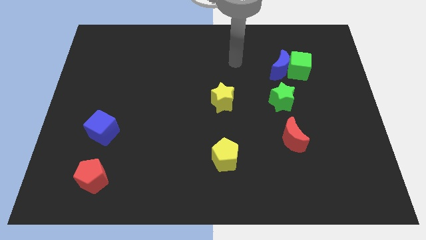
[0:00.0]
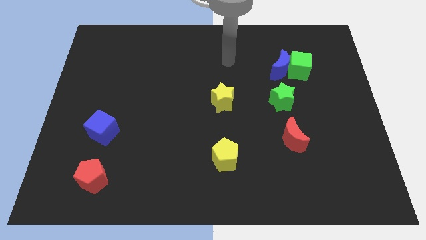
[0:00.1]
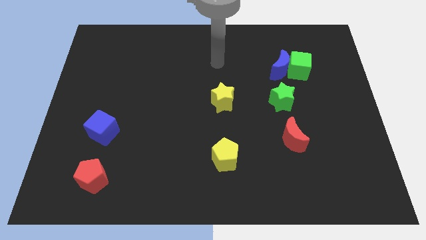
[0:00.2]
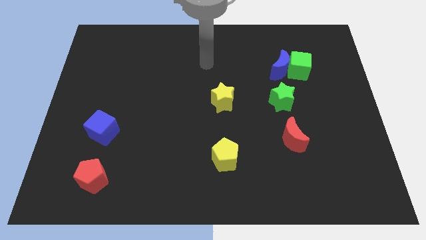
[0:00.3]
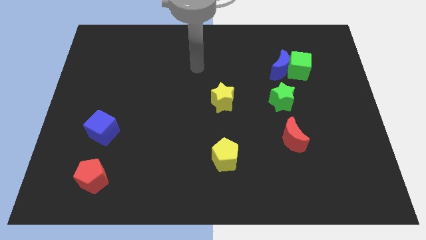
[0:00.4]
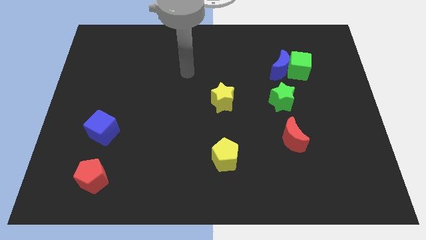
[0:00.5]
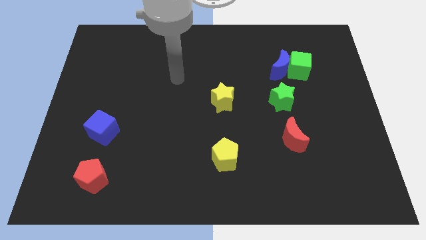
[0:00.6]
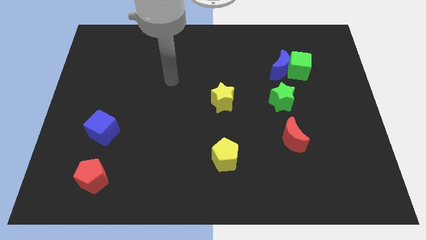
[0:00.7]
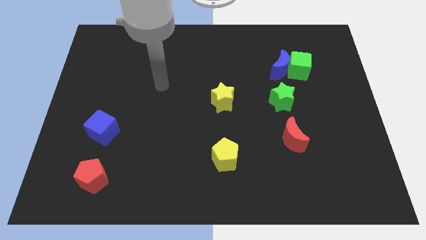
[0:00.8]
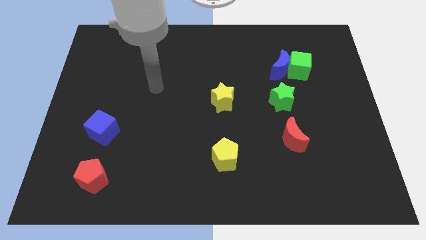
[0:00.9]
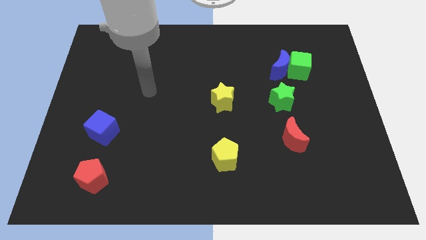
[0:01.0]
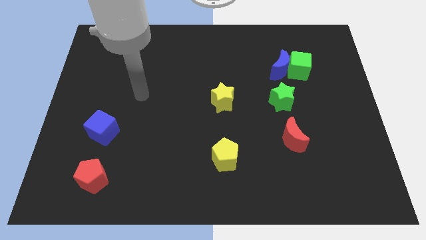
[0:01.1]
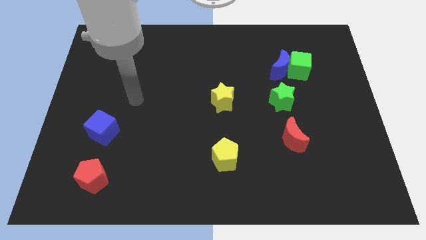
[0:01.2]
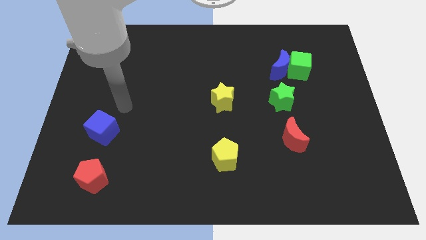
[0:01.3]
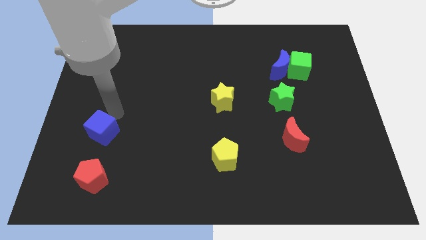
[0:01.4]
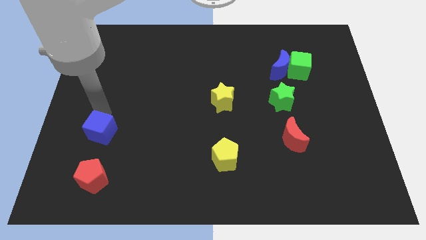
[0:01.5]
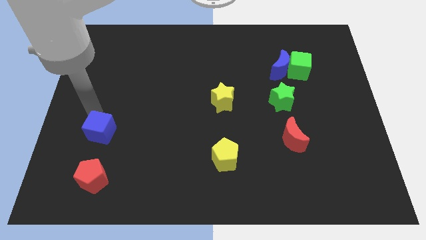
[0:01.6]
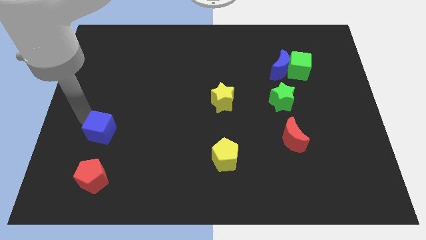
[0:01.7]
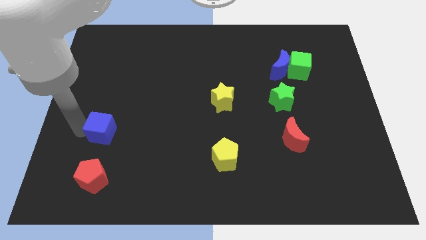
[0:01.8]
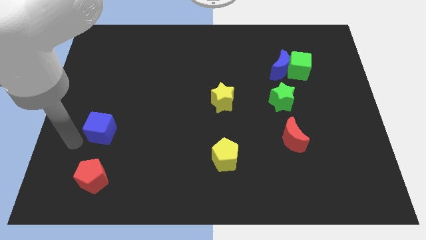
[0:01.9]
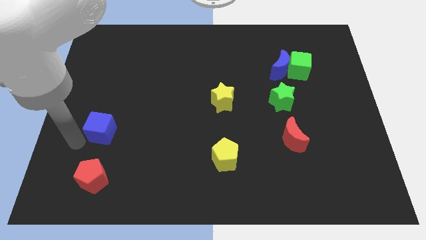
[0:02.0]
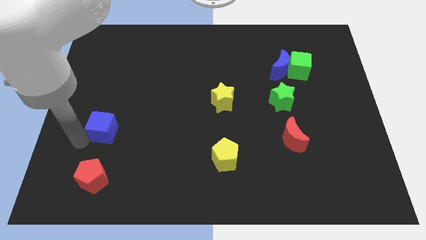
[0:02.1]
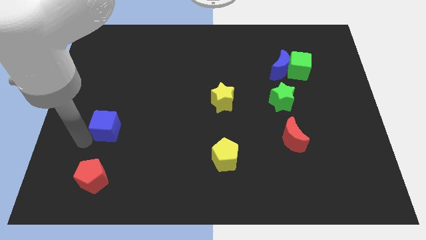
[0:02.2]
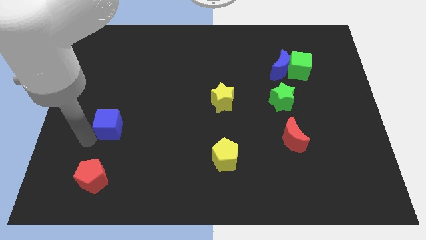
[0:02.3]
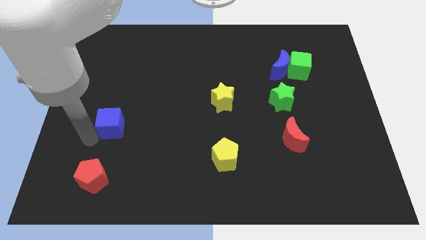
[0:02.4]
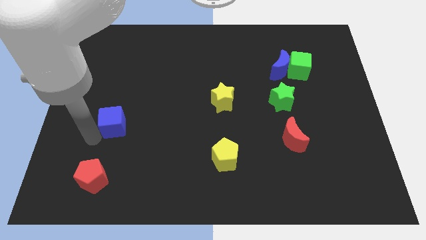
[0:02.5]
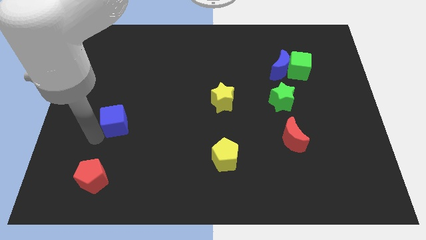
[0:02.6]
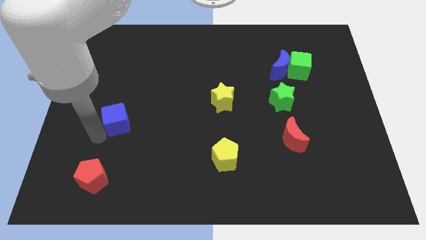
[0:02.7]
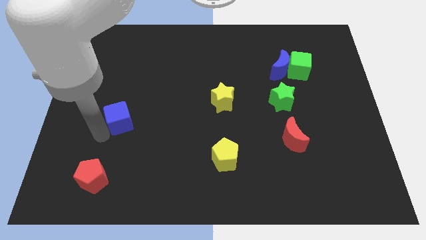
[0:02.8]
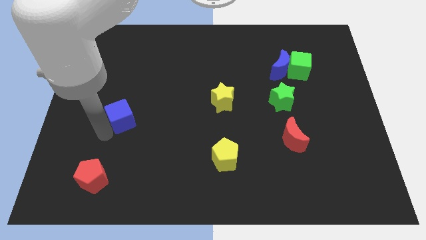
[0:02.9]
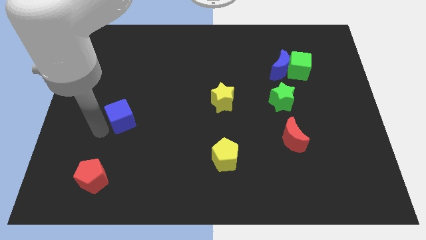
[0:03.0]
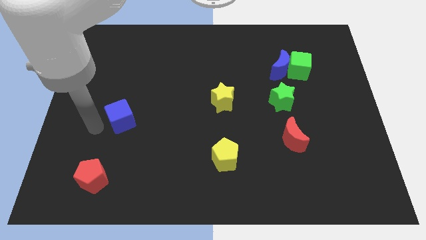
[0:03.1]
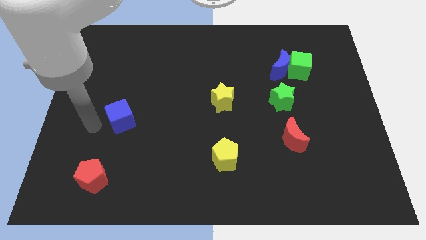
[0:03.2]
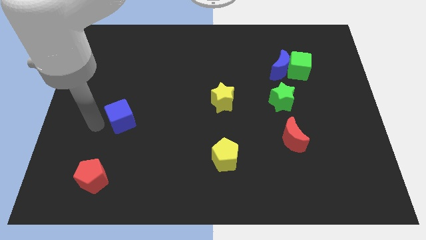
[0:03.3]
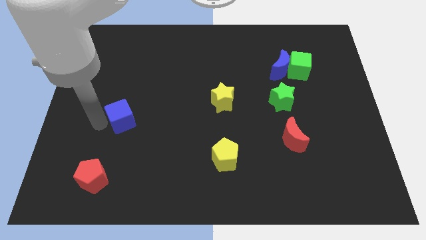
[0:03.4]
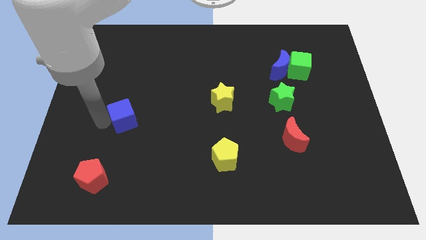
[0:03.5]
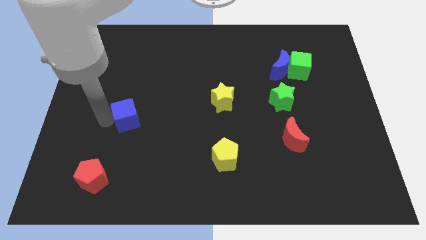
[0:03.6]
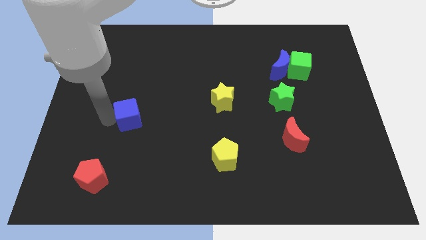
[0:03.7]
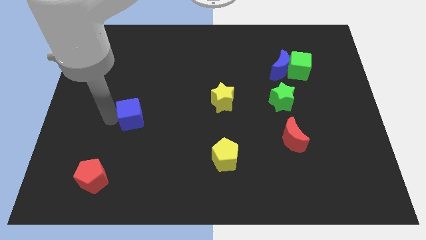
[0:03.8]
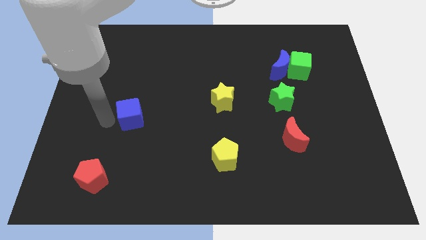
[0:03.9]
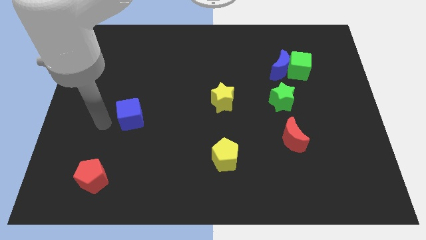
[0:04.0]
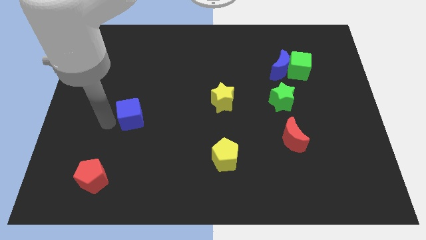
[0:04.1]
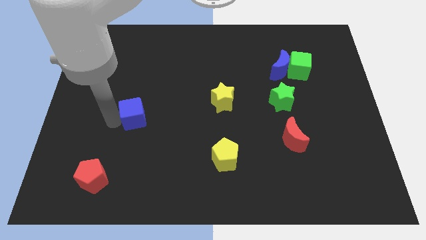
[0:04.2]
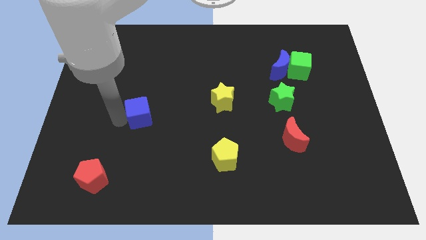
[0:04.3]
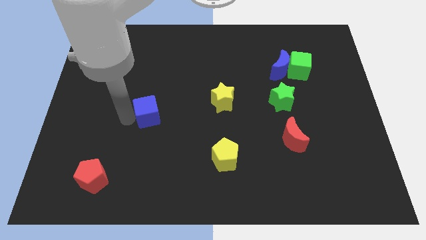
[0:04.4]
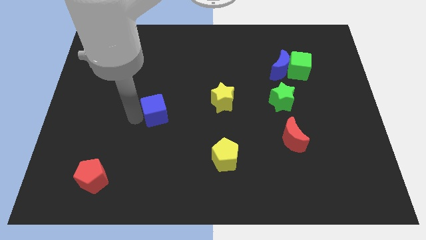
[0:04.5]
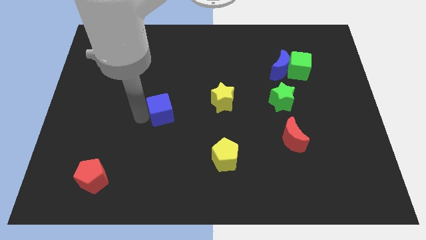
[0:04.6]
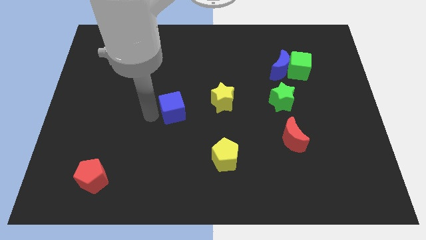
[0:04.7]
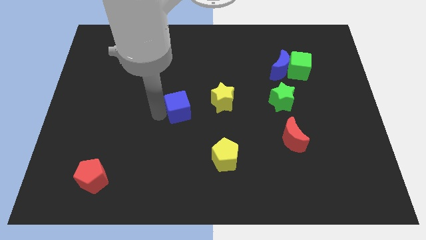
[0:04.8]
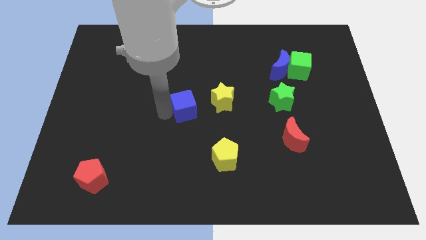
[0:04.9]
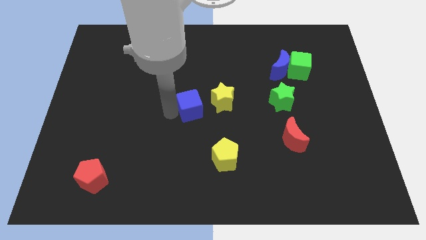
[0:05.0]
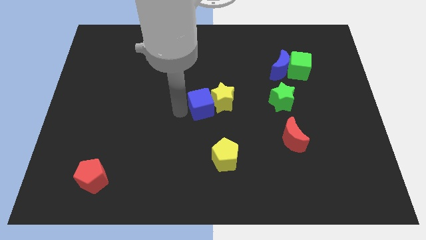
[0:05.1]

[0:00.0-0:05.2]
move the blue cube to the yellow star

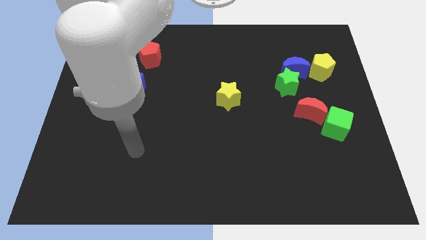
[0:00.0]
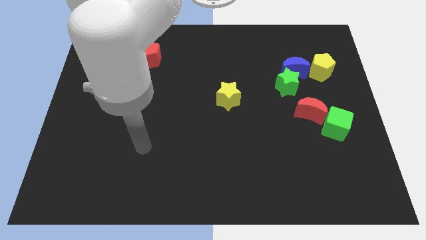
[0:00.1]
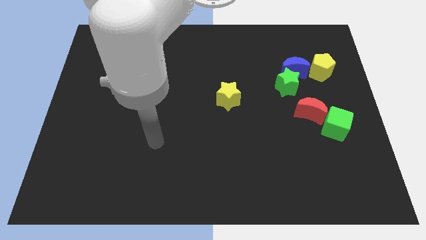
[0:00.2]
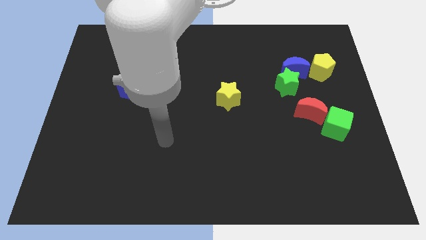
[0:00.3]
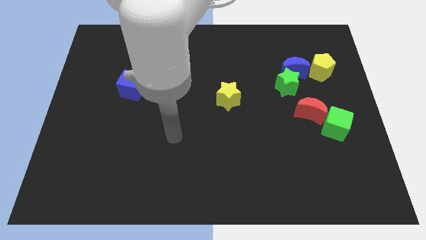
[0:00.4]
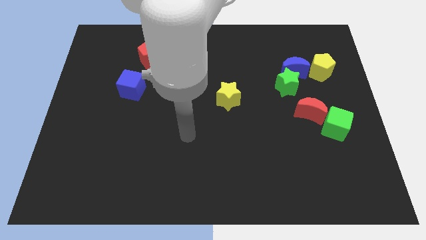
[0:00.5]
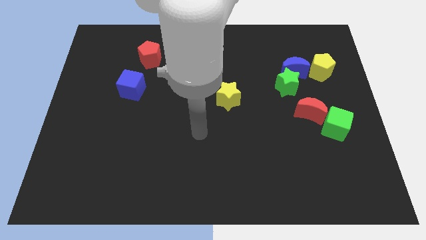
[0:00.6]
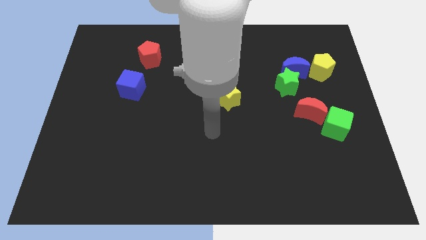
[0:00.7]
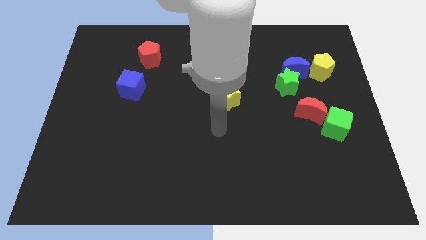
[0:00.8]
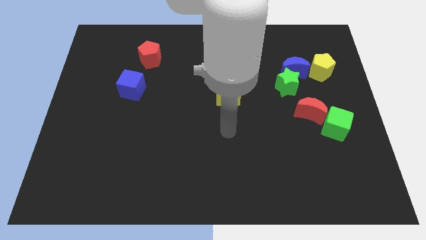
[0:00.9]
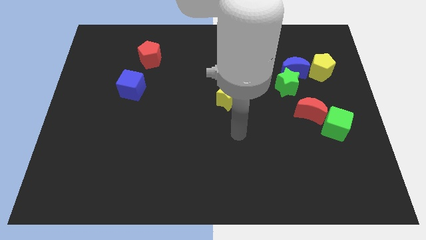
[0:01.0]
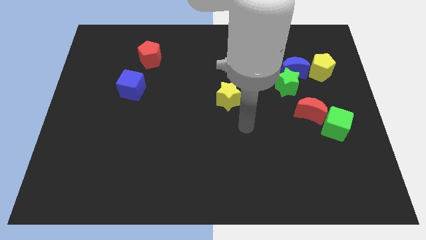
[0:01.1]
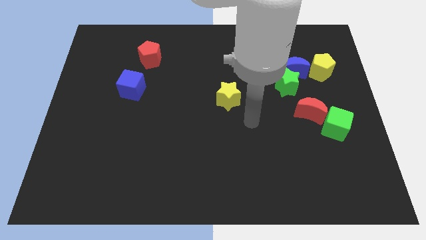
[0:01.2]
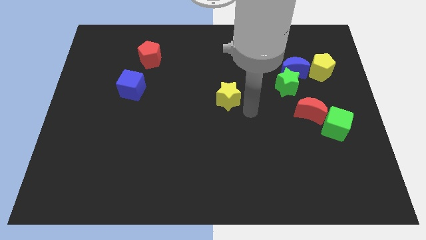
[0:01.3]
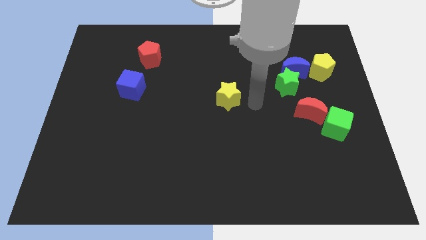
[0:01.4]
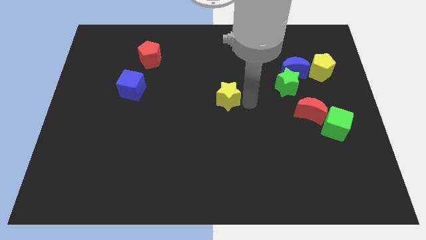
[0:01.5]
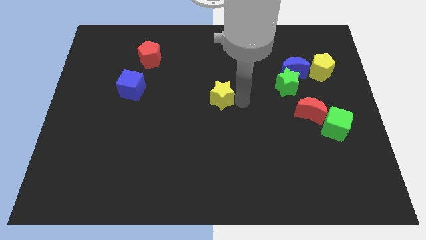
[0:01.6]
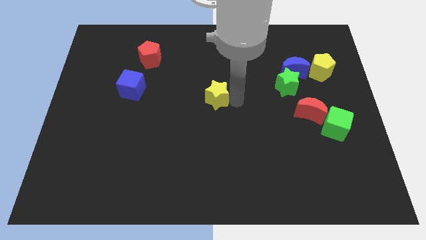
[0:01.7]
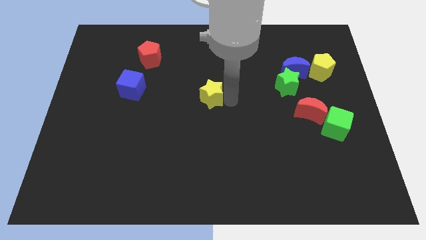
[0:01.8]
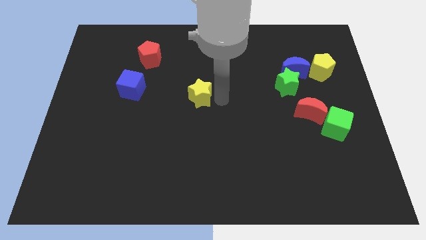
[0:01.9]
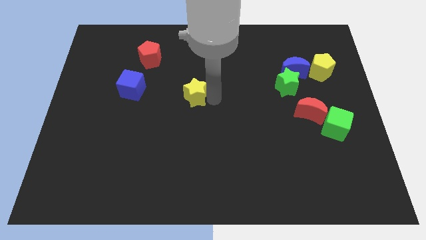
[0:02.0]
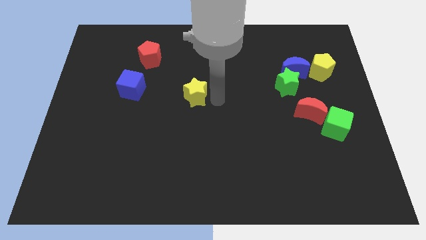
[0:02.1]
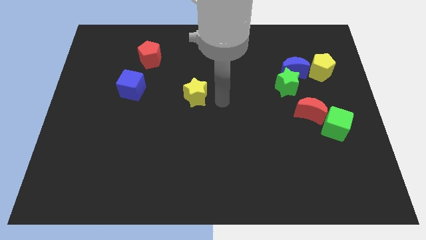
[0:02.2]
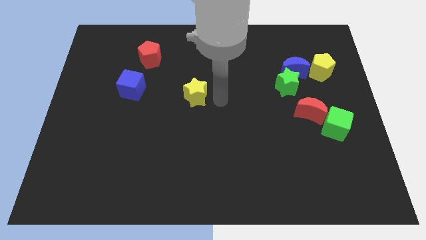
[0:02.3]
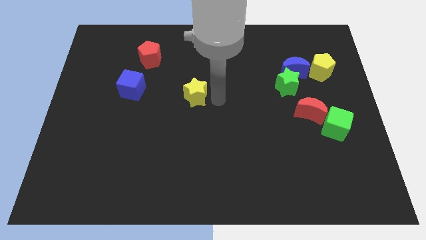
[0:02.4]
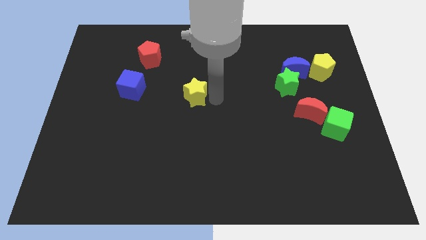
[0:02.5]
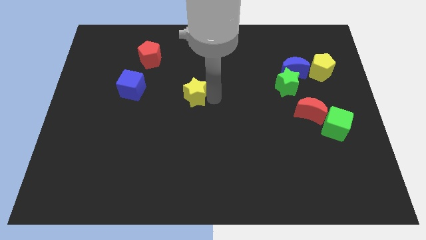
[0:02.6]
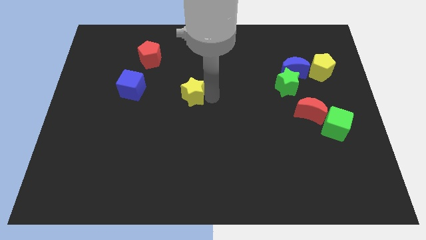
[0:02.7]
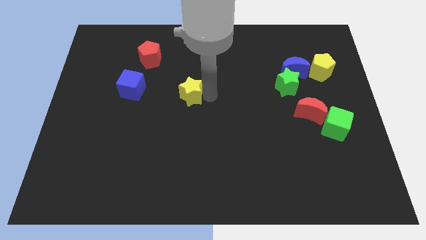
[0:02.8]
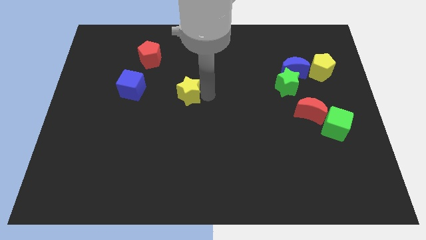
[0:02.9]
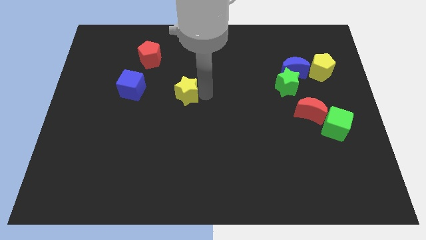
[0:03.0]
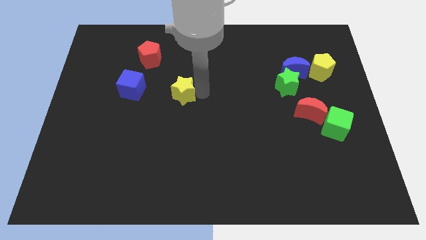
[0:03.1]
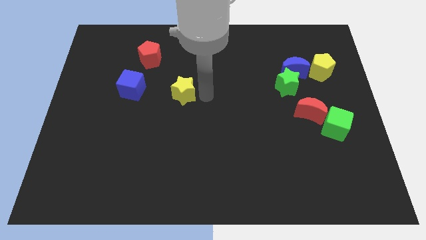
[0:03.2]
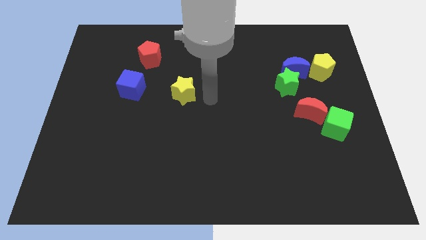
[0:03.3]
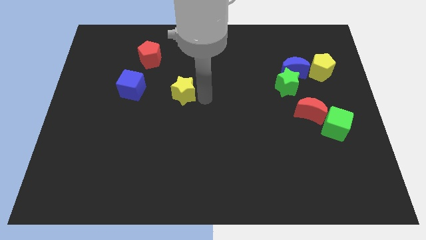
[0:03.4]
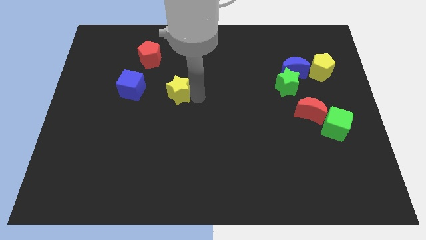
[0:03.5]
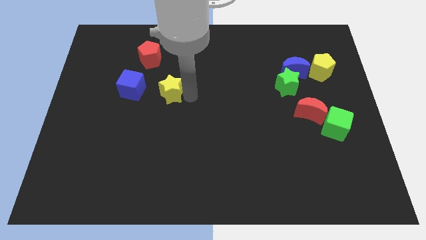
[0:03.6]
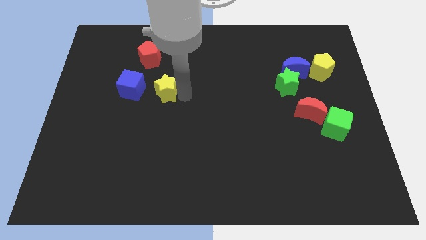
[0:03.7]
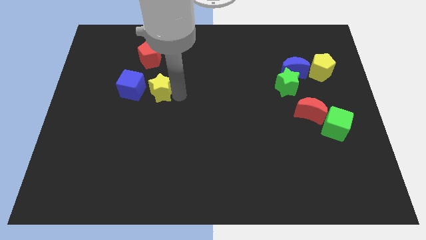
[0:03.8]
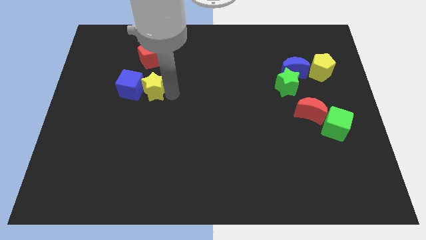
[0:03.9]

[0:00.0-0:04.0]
put the yellow star close to the blue cube
